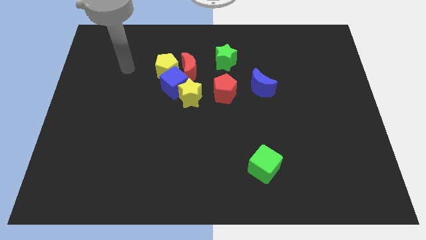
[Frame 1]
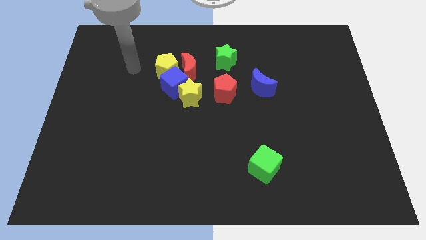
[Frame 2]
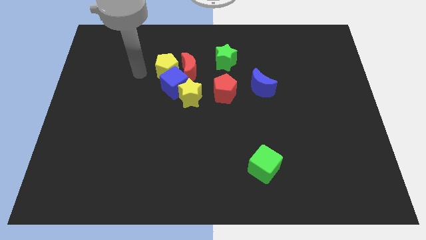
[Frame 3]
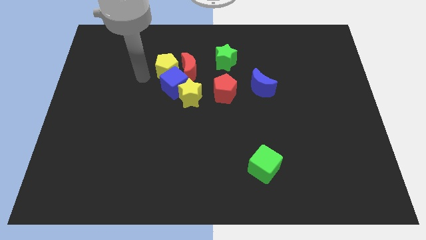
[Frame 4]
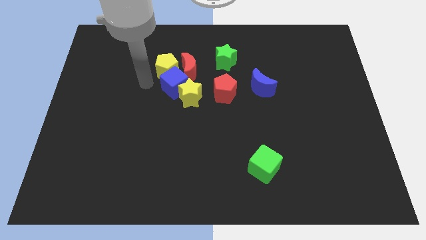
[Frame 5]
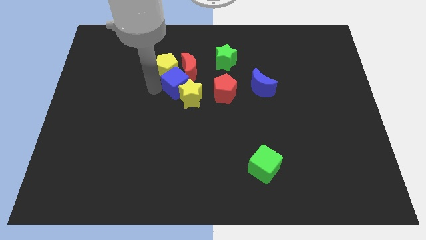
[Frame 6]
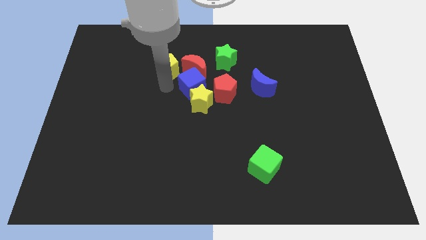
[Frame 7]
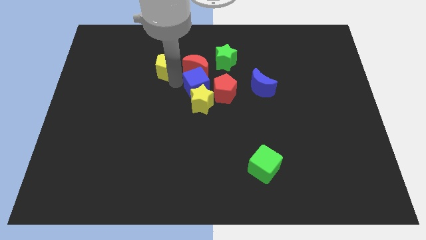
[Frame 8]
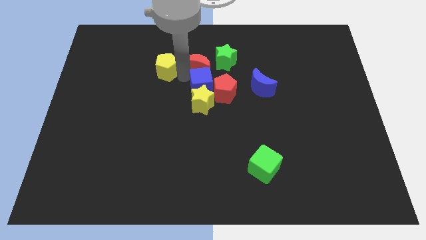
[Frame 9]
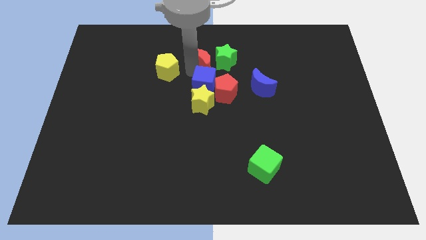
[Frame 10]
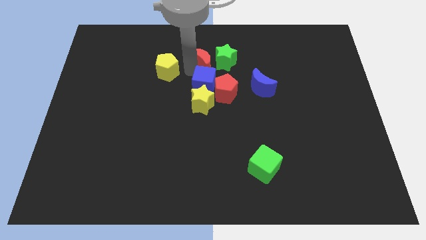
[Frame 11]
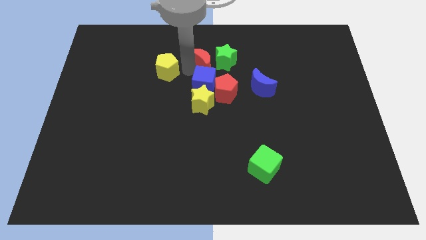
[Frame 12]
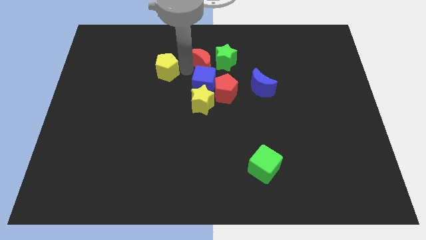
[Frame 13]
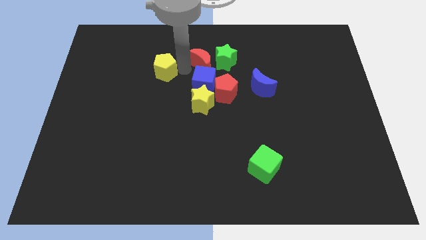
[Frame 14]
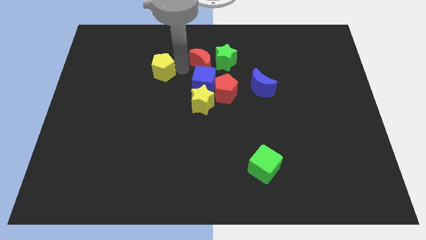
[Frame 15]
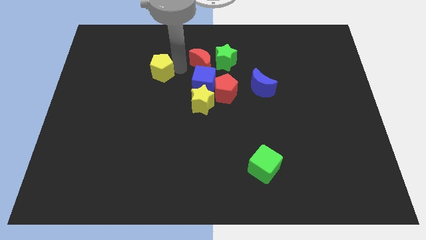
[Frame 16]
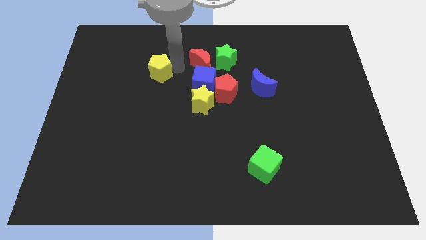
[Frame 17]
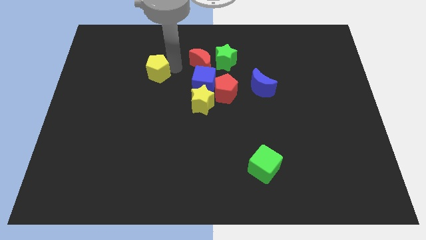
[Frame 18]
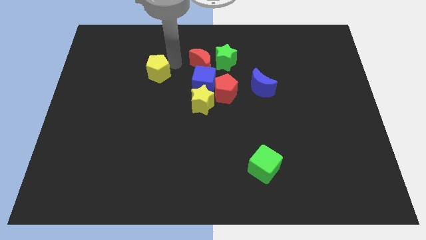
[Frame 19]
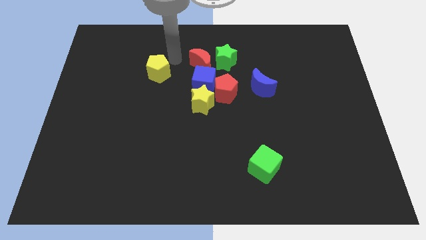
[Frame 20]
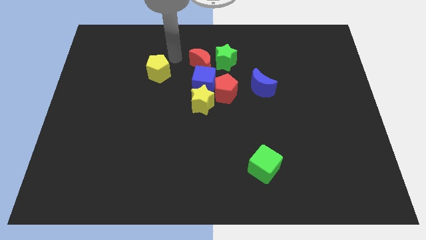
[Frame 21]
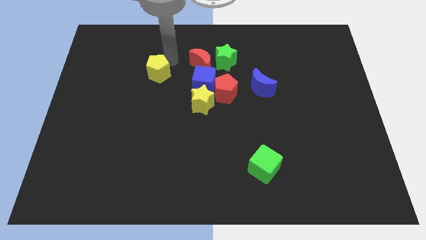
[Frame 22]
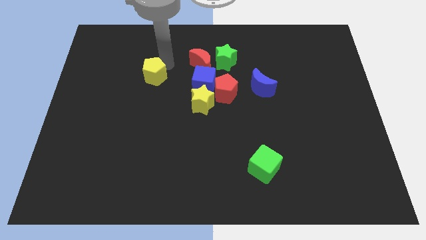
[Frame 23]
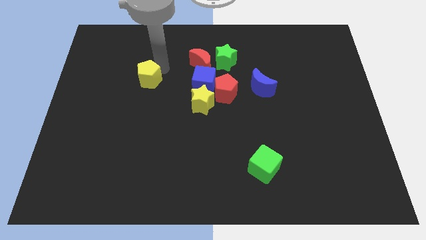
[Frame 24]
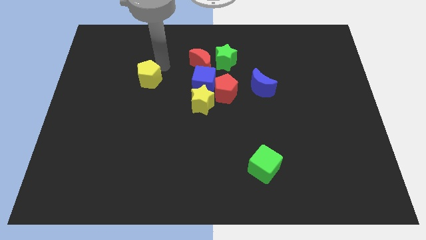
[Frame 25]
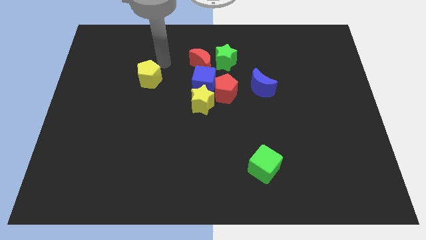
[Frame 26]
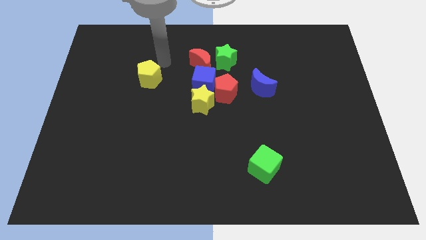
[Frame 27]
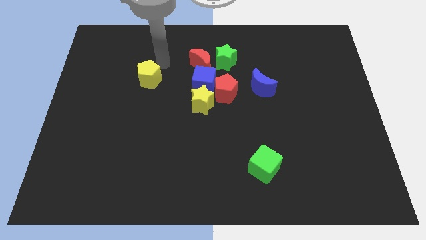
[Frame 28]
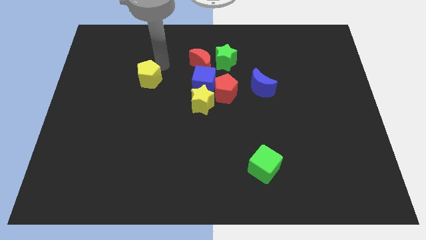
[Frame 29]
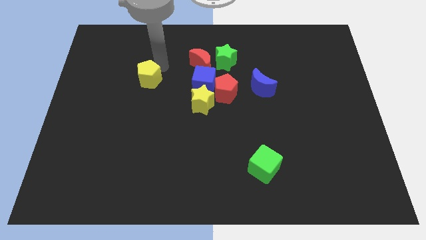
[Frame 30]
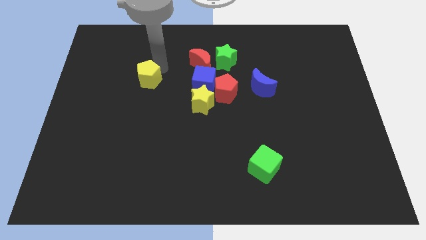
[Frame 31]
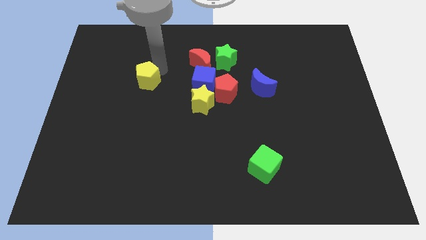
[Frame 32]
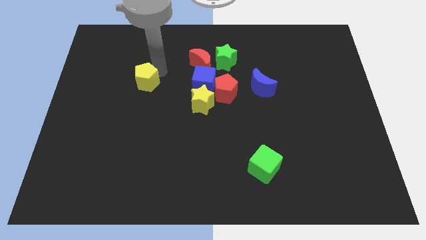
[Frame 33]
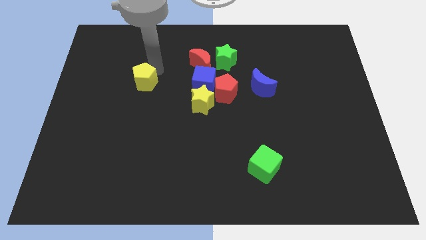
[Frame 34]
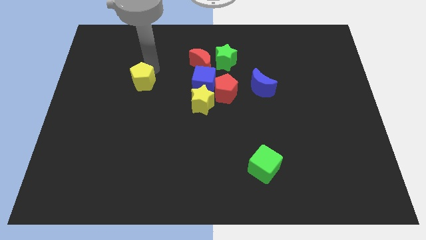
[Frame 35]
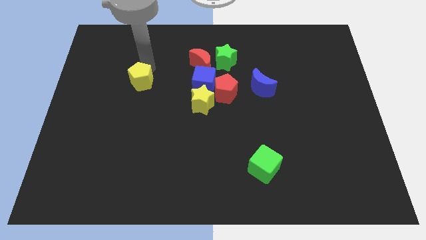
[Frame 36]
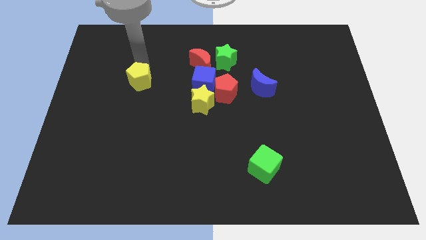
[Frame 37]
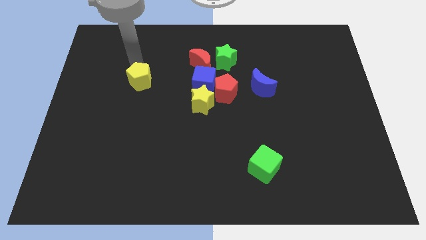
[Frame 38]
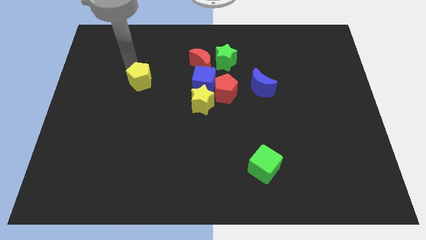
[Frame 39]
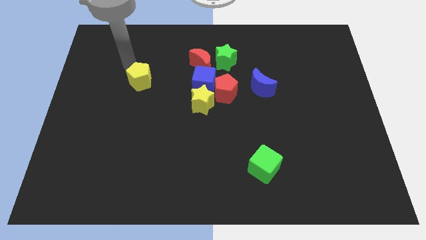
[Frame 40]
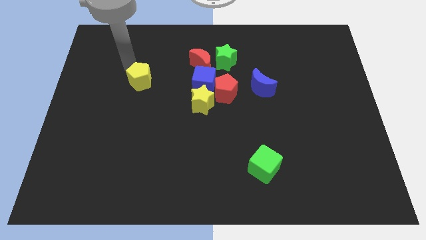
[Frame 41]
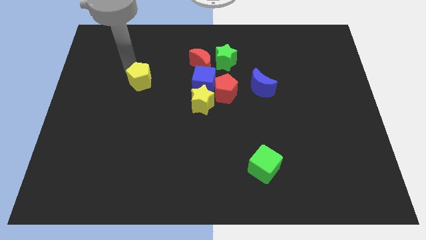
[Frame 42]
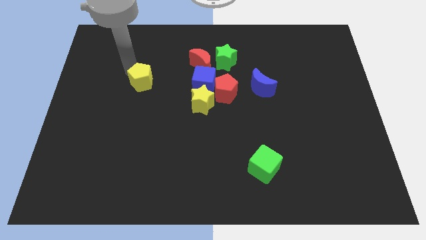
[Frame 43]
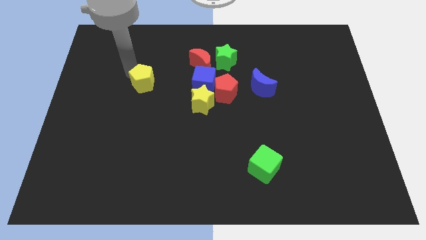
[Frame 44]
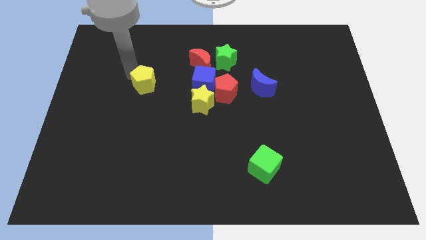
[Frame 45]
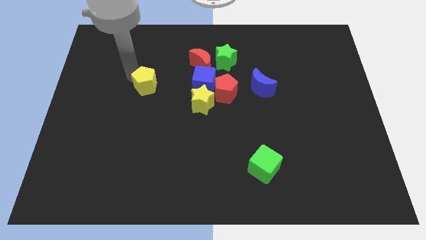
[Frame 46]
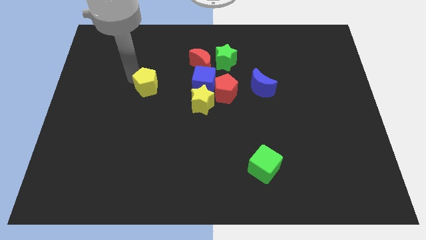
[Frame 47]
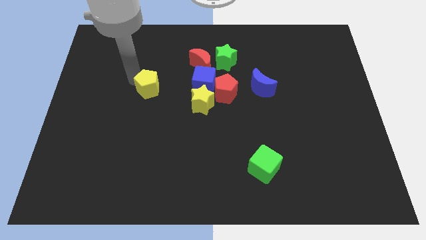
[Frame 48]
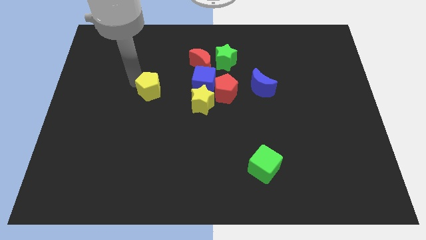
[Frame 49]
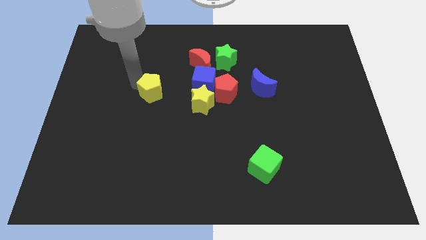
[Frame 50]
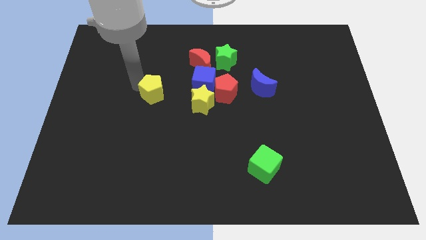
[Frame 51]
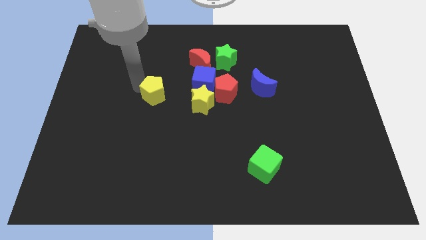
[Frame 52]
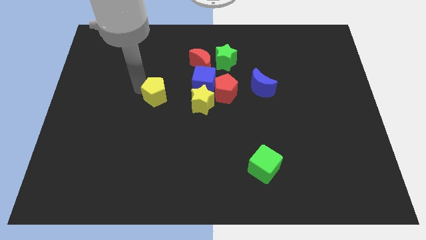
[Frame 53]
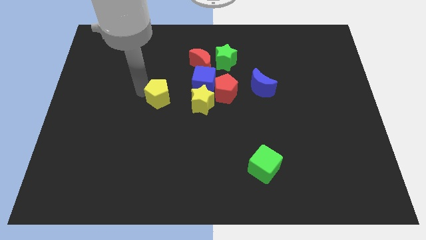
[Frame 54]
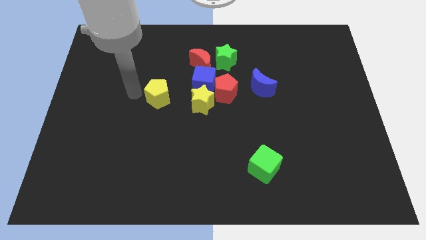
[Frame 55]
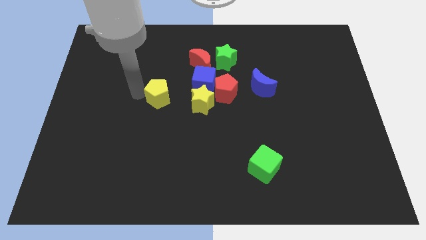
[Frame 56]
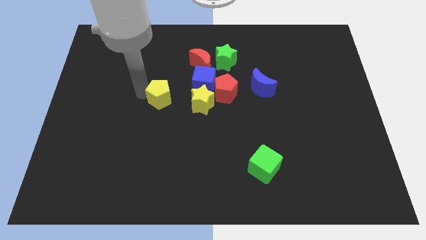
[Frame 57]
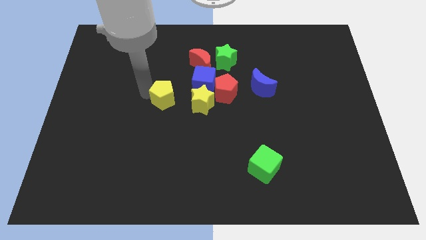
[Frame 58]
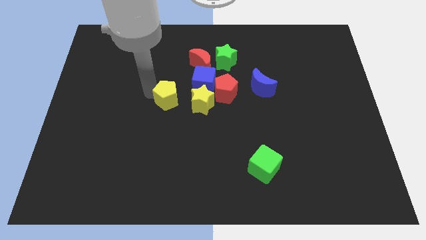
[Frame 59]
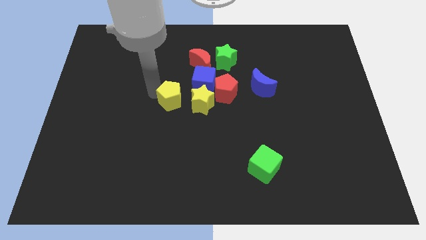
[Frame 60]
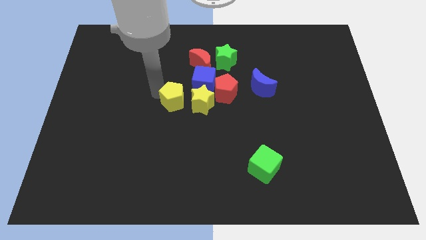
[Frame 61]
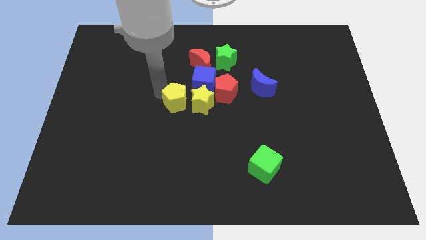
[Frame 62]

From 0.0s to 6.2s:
move the yellow pentagon to the yellow star
